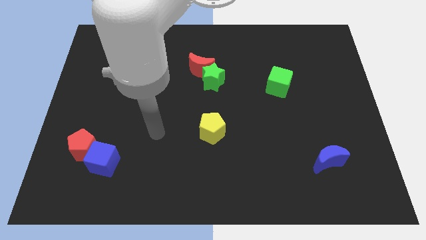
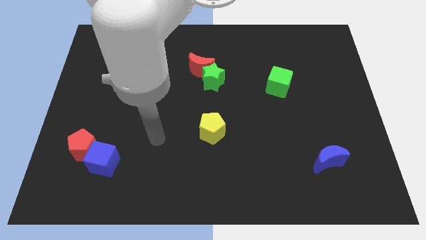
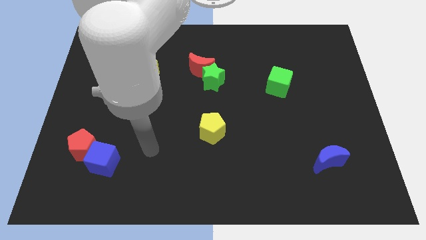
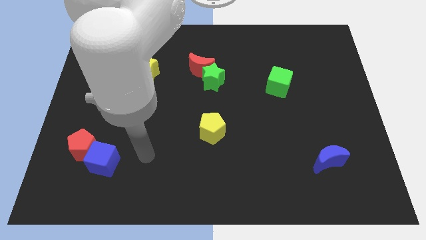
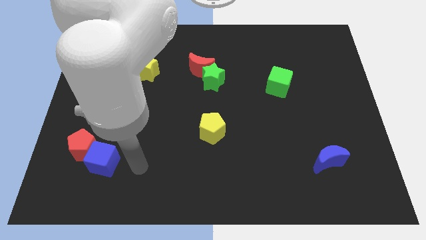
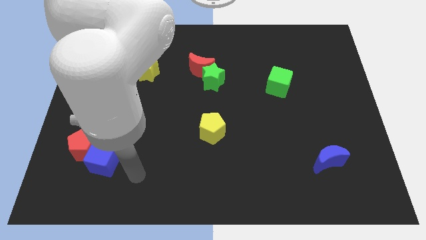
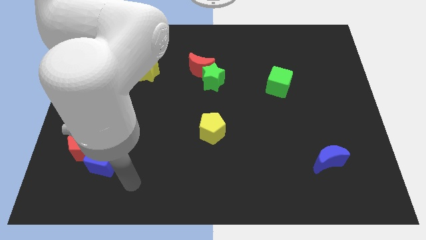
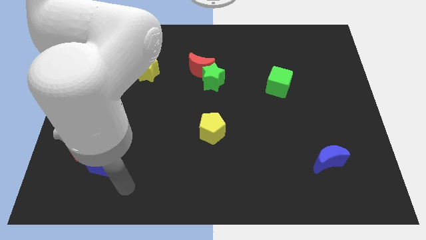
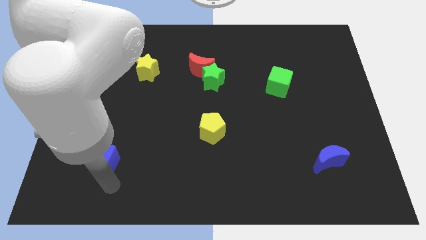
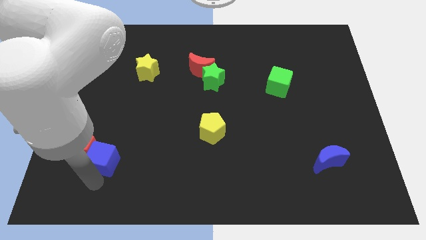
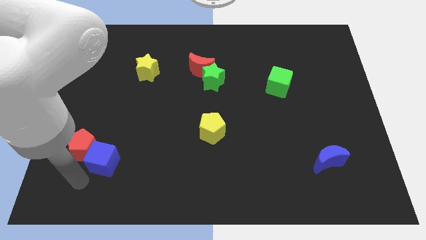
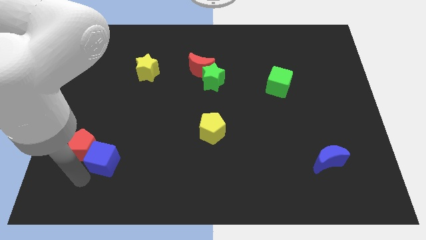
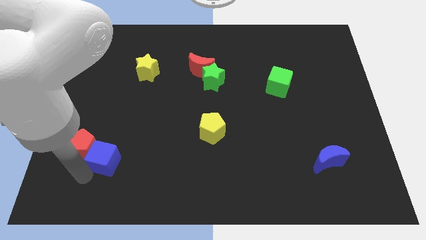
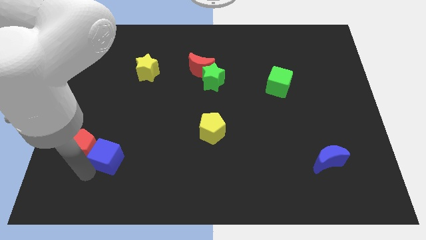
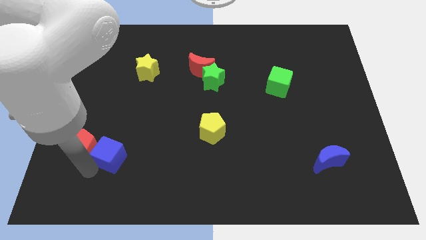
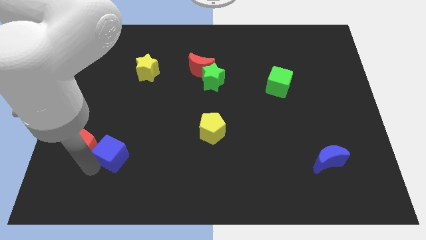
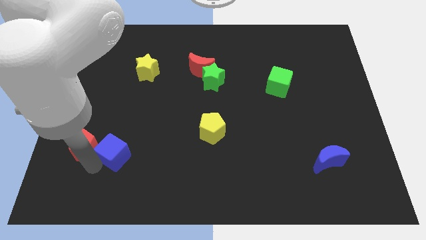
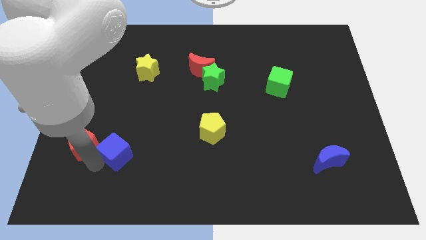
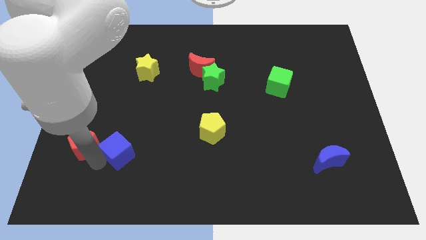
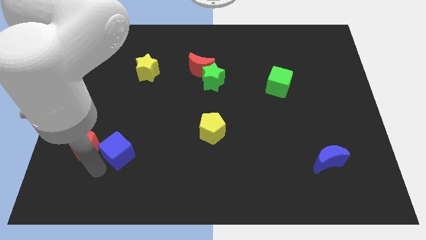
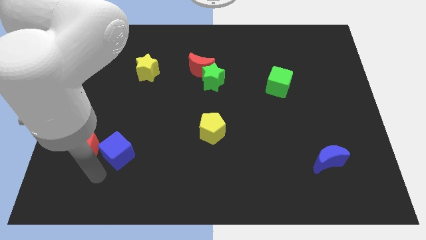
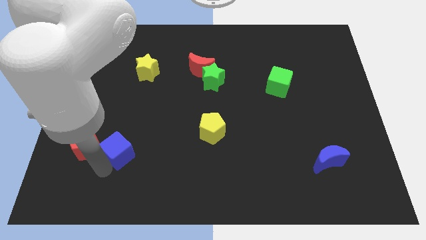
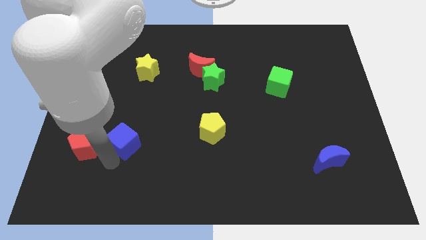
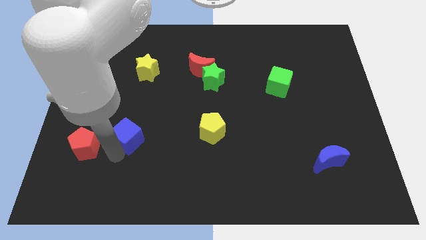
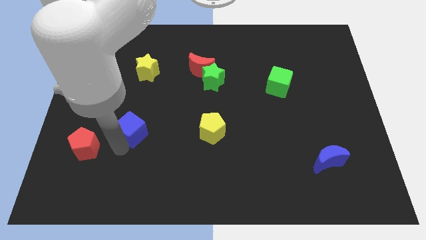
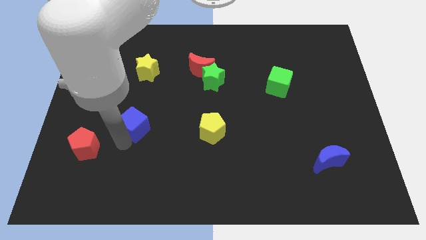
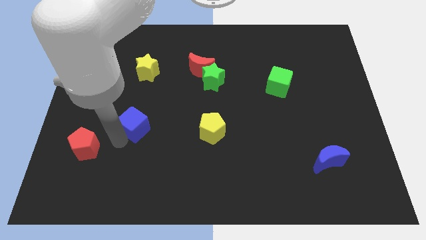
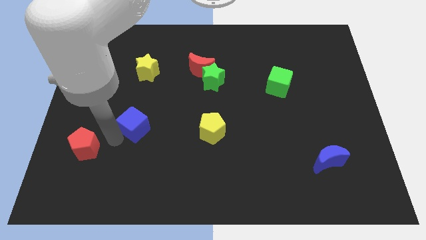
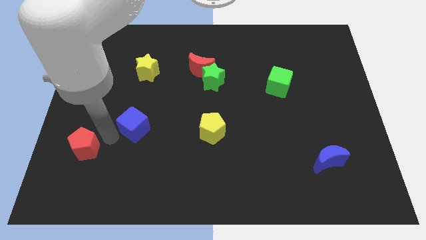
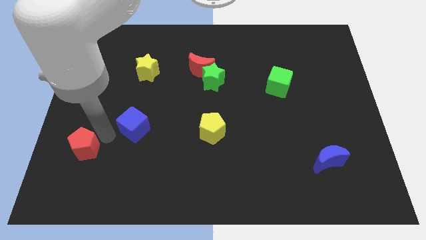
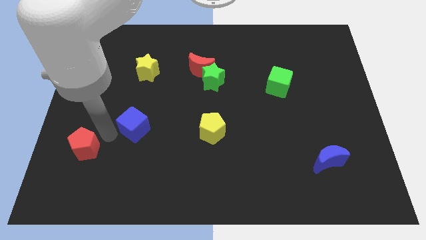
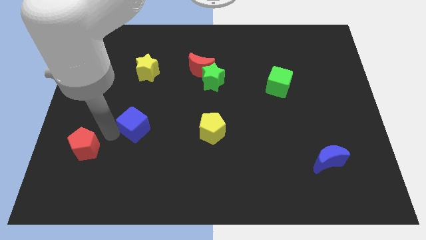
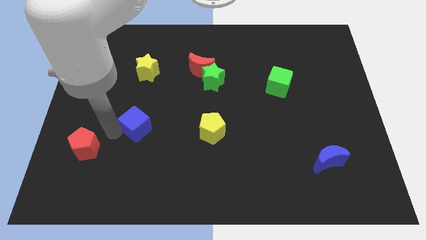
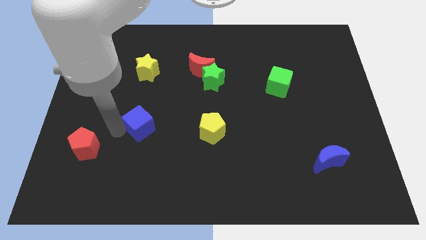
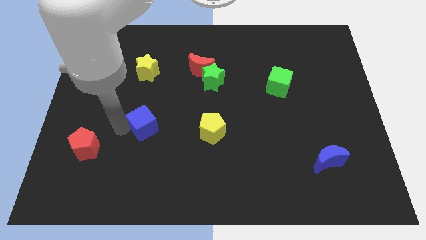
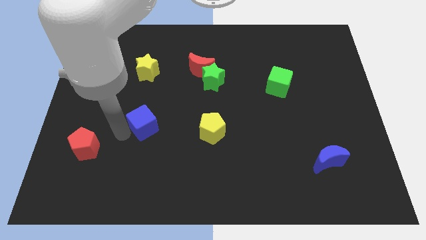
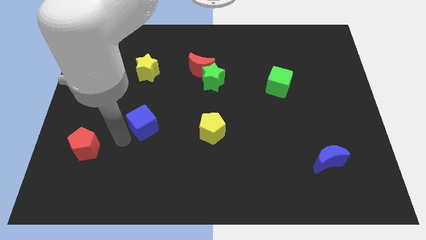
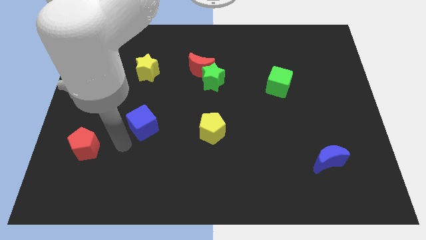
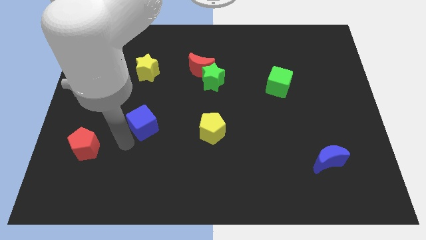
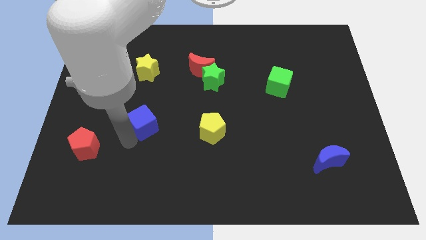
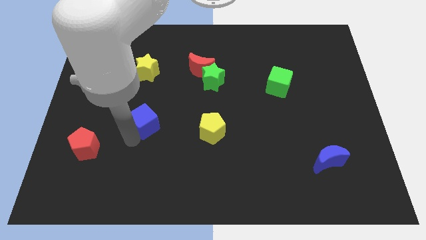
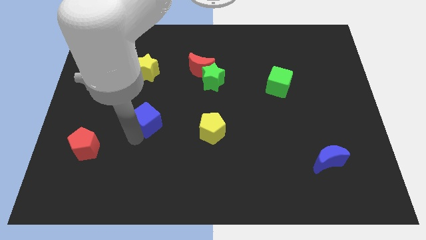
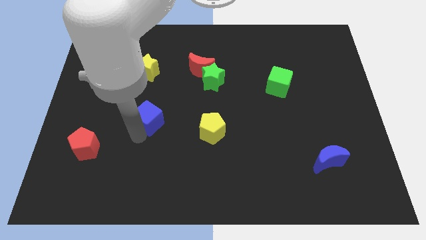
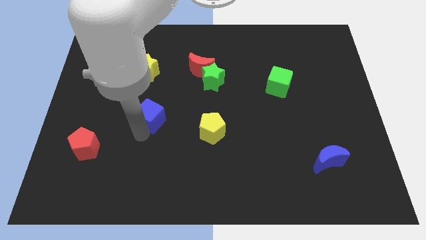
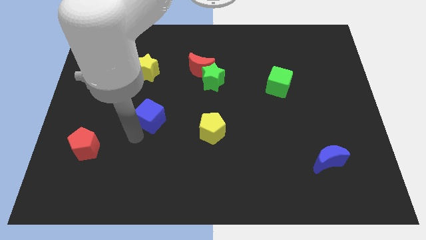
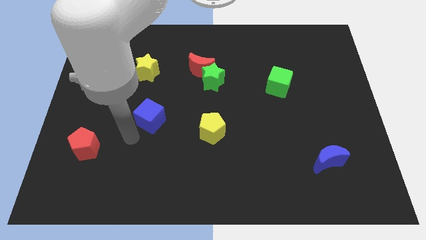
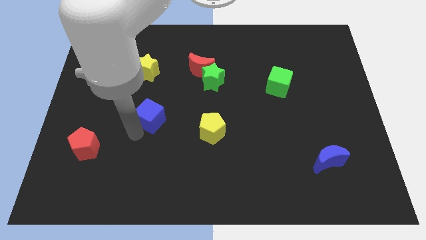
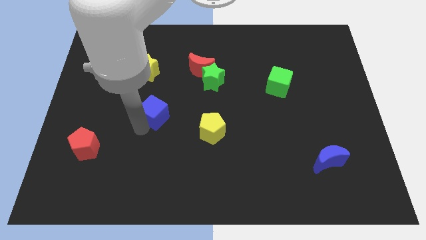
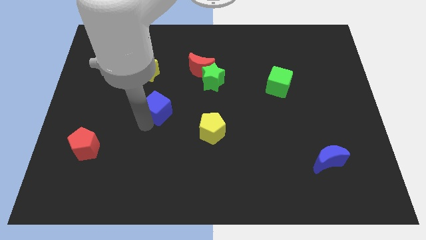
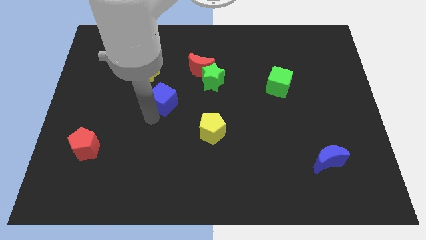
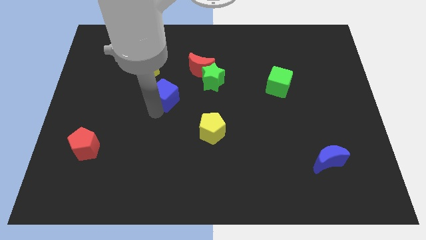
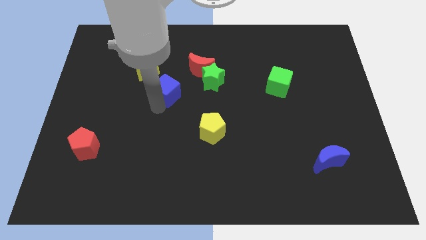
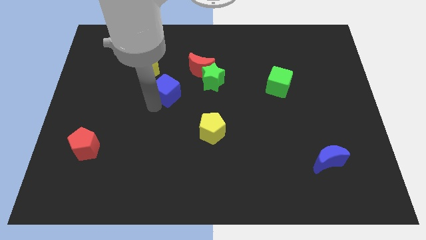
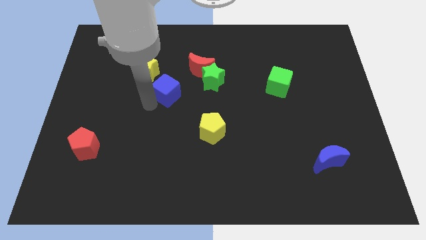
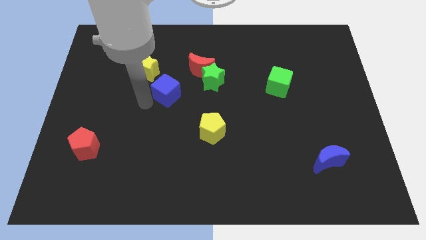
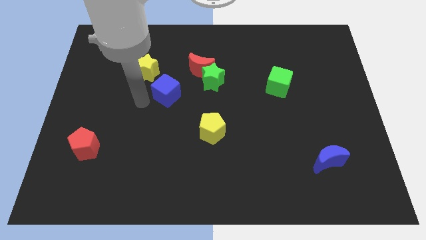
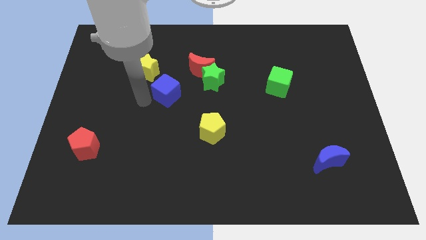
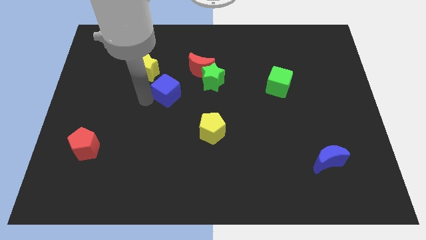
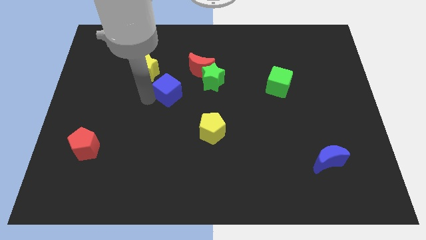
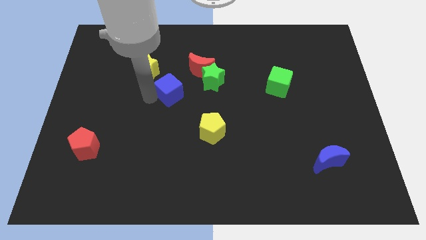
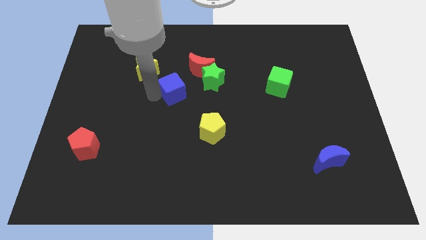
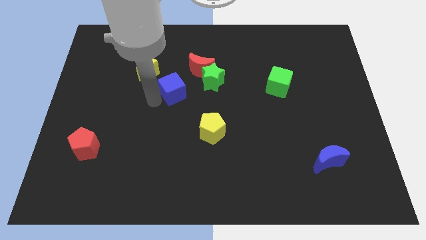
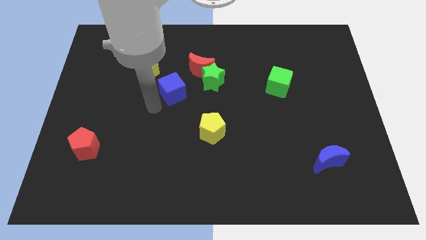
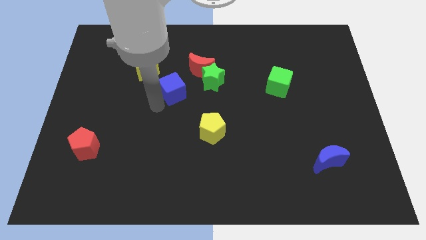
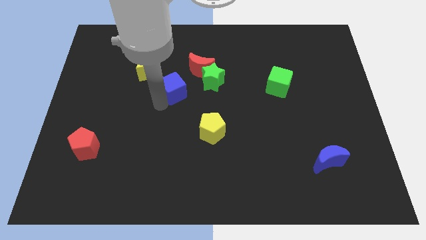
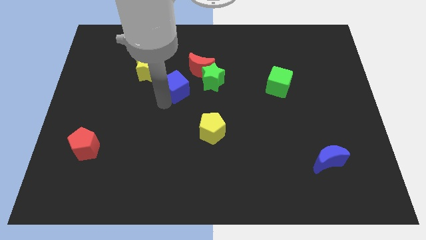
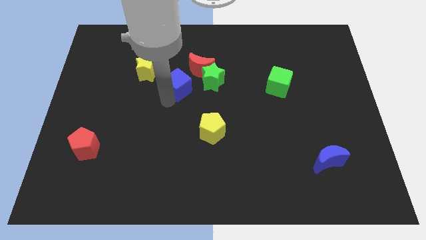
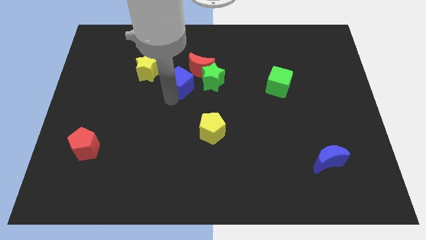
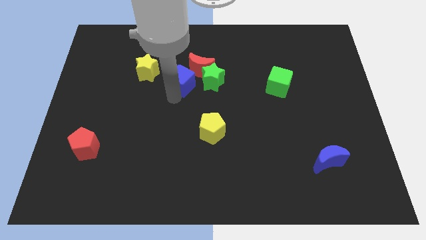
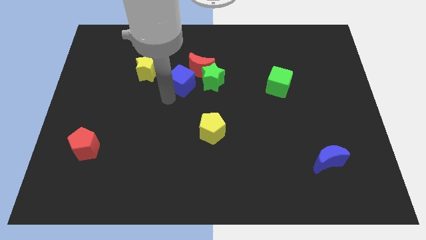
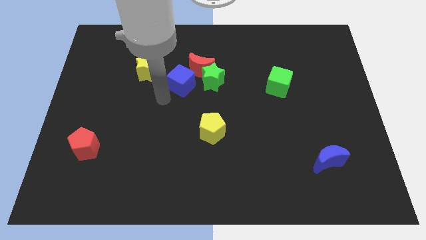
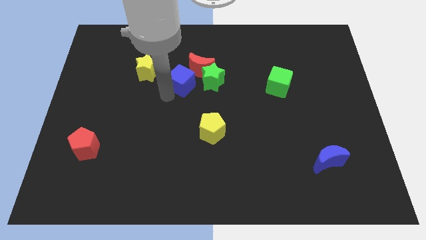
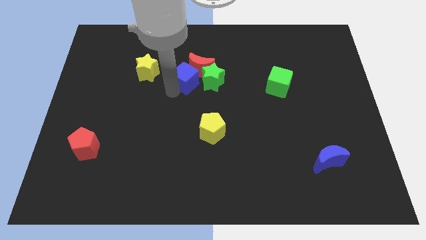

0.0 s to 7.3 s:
push the blue cube close to the red moon
